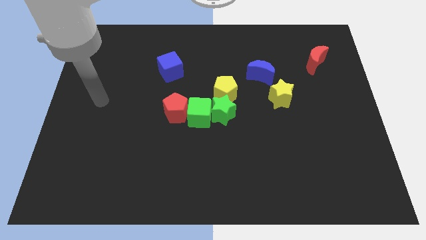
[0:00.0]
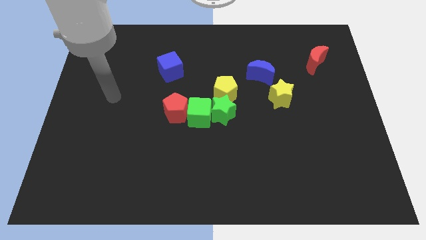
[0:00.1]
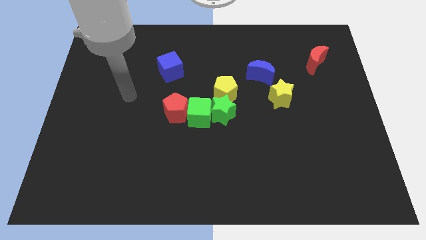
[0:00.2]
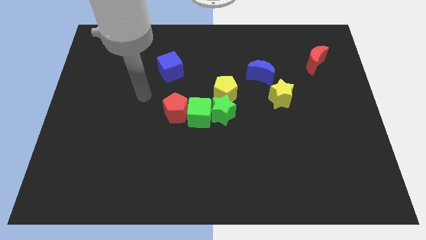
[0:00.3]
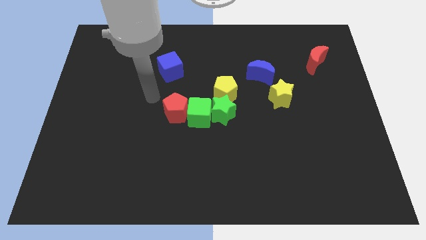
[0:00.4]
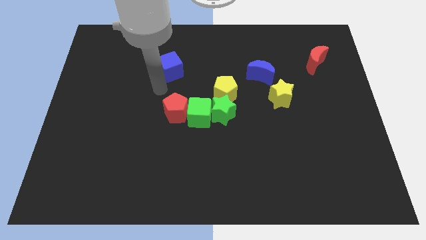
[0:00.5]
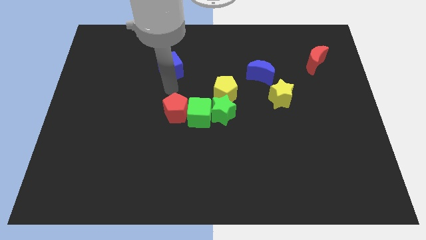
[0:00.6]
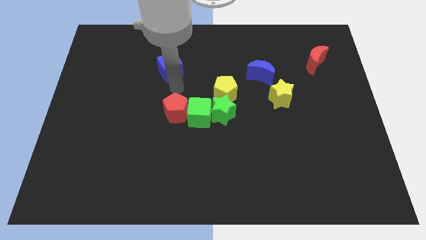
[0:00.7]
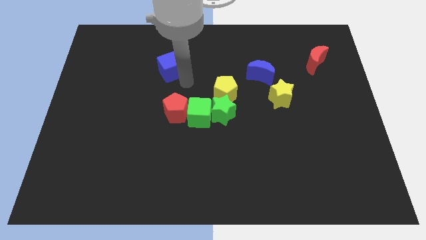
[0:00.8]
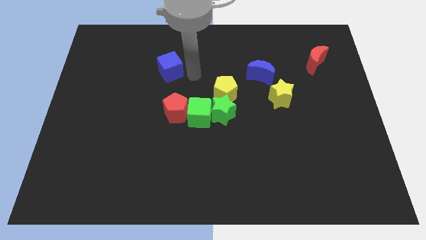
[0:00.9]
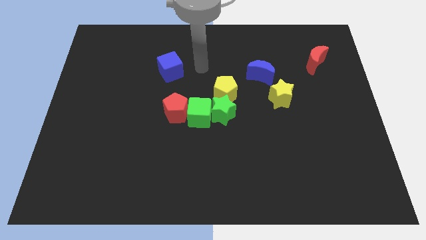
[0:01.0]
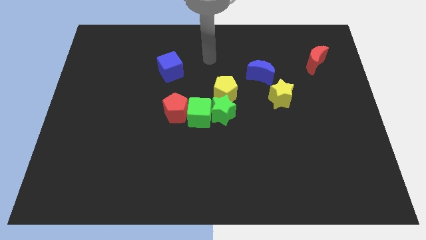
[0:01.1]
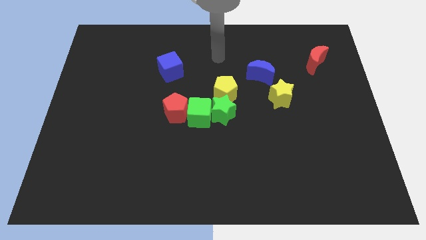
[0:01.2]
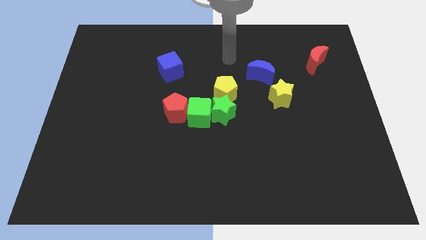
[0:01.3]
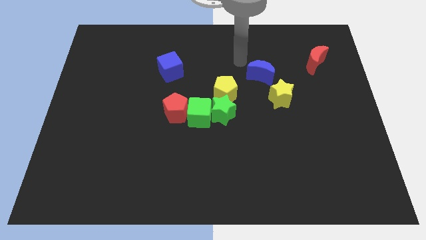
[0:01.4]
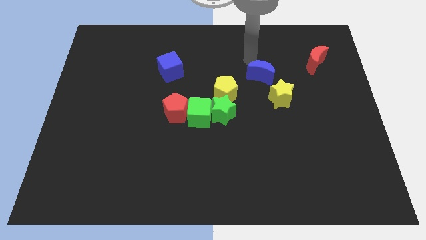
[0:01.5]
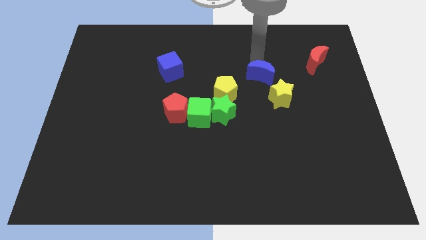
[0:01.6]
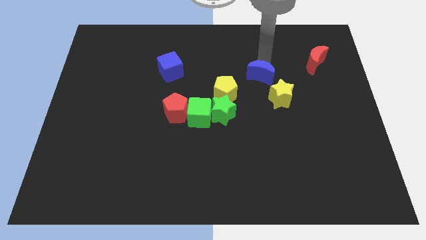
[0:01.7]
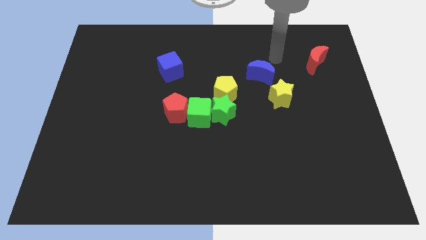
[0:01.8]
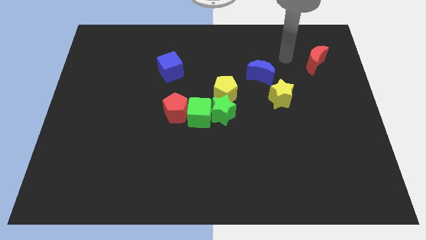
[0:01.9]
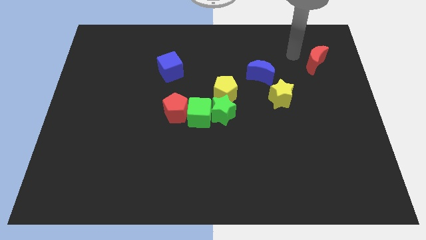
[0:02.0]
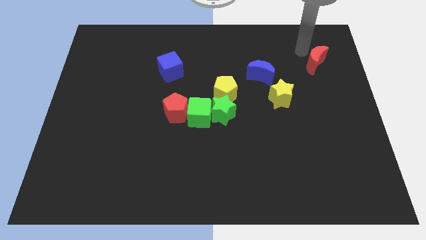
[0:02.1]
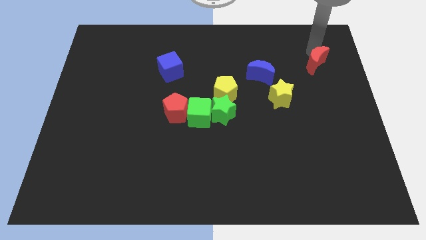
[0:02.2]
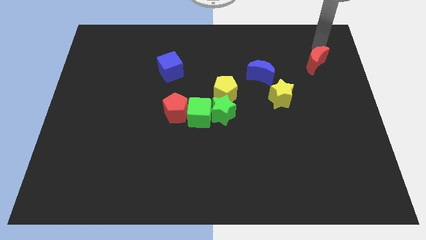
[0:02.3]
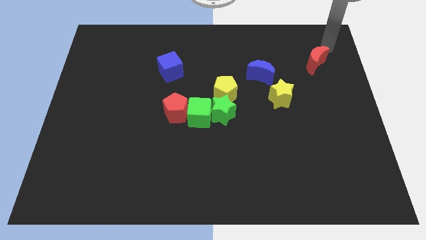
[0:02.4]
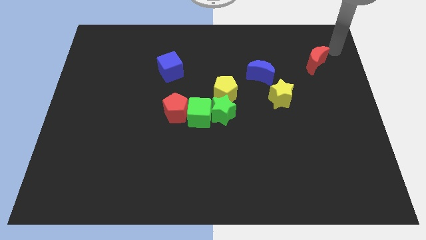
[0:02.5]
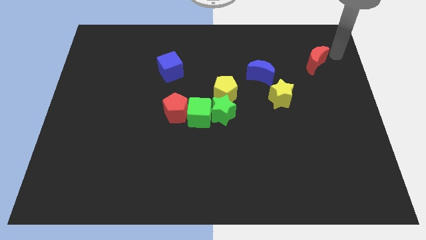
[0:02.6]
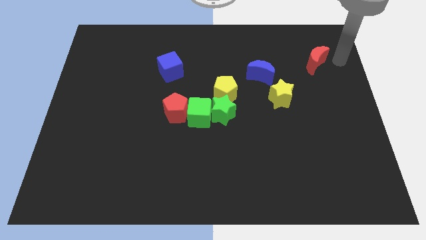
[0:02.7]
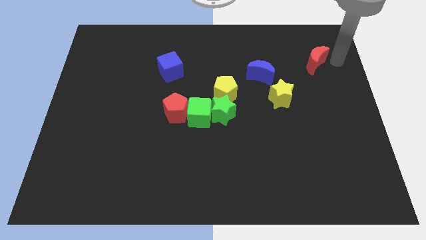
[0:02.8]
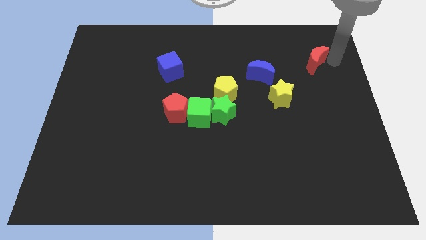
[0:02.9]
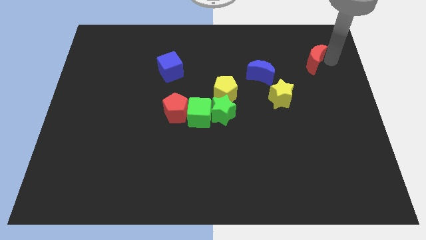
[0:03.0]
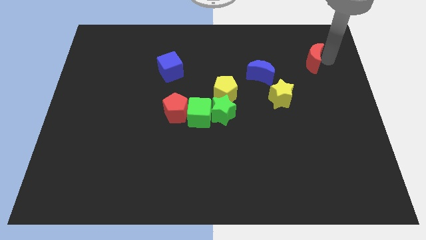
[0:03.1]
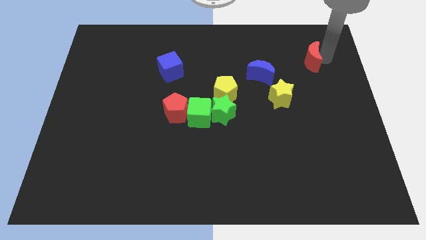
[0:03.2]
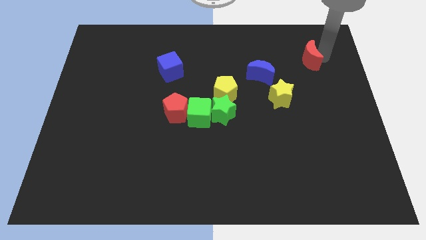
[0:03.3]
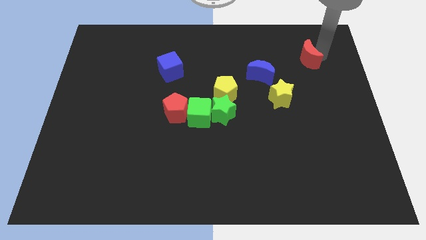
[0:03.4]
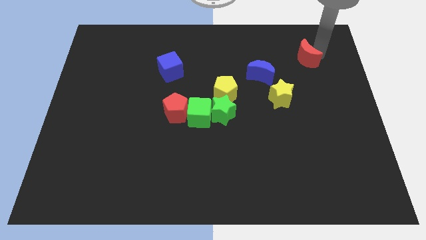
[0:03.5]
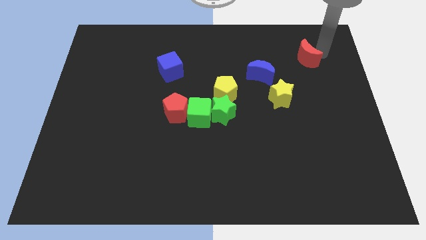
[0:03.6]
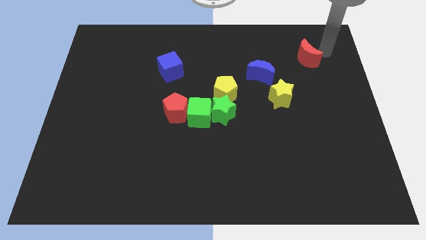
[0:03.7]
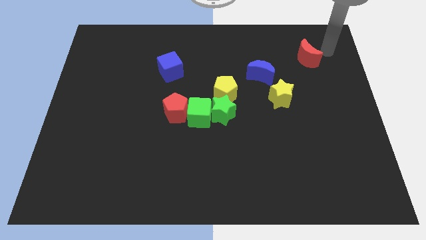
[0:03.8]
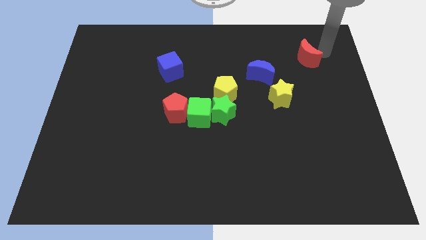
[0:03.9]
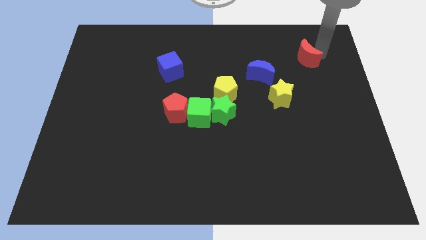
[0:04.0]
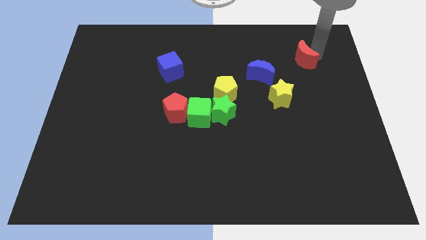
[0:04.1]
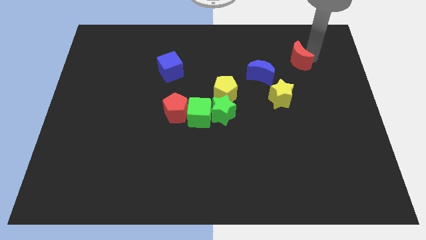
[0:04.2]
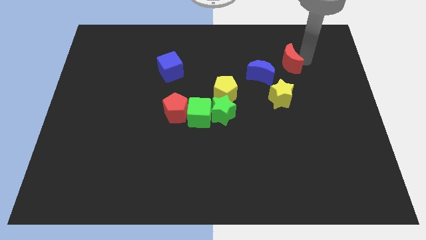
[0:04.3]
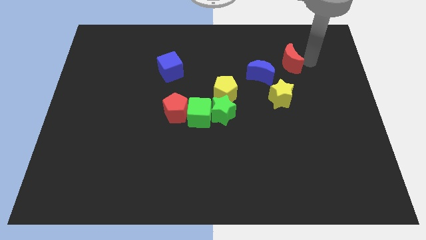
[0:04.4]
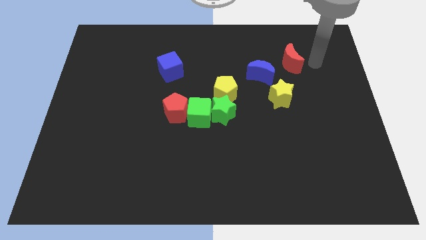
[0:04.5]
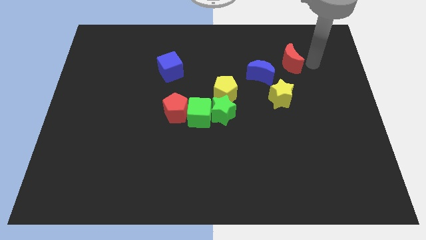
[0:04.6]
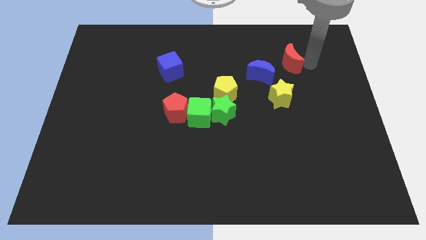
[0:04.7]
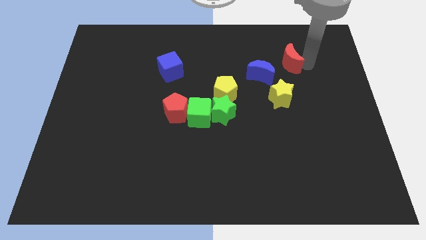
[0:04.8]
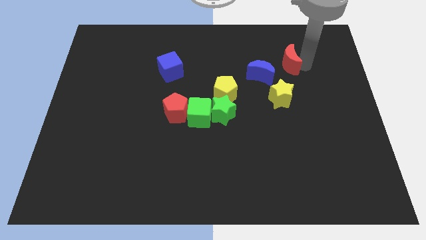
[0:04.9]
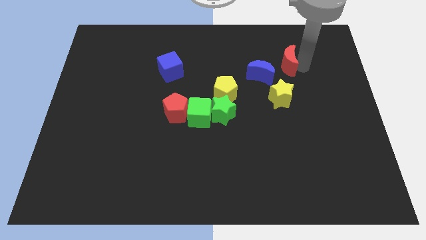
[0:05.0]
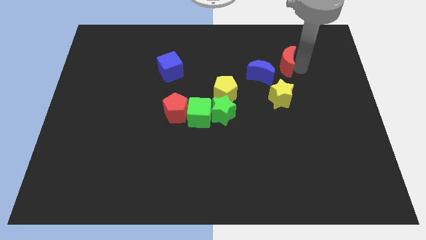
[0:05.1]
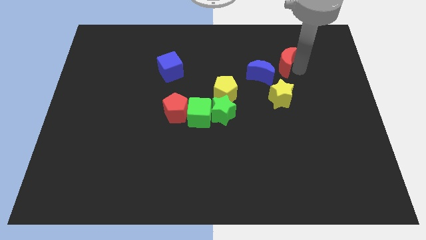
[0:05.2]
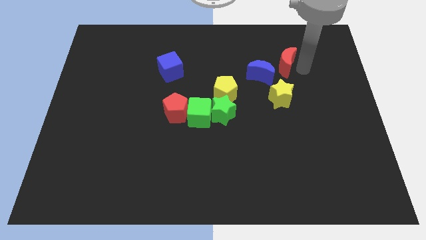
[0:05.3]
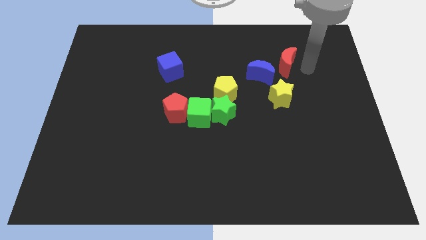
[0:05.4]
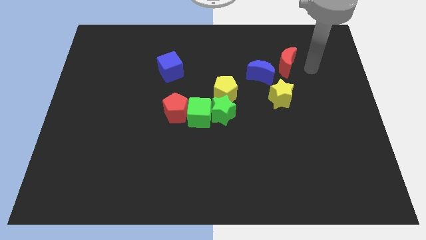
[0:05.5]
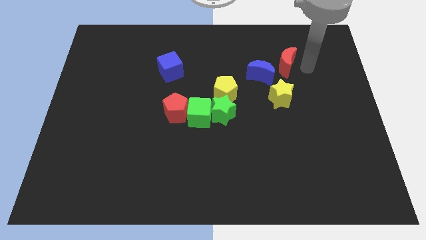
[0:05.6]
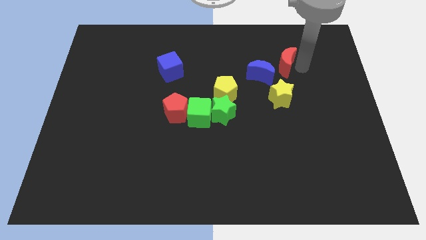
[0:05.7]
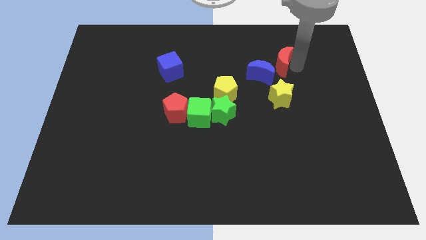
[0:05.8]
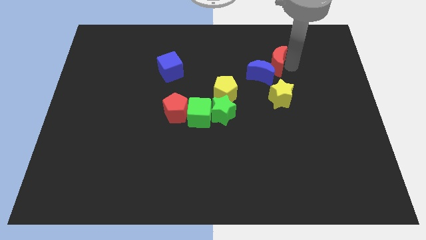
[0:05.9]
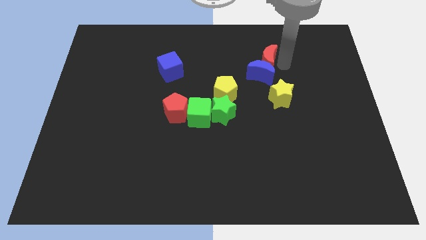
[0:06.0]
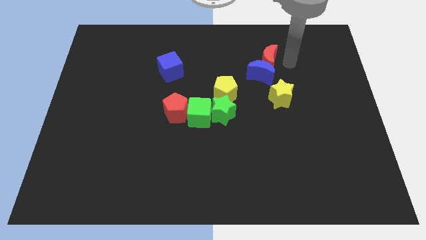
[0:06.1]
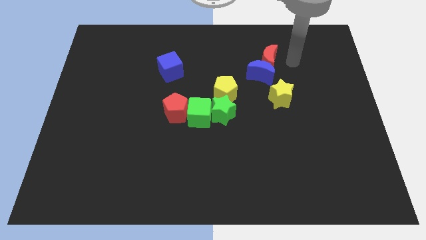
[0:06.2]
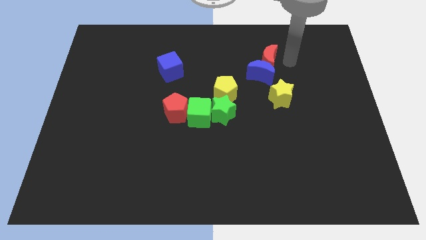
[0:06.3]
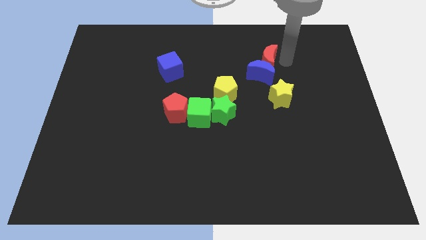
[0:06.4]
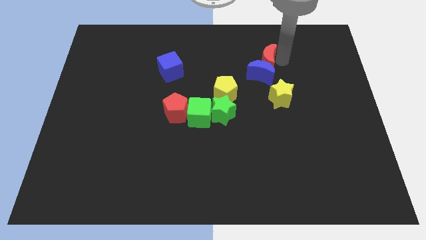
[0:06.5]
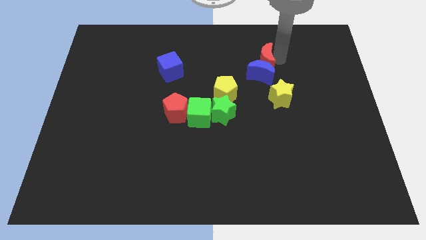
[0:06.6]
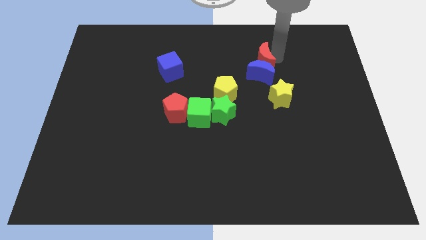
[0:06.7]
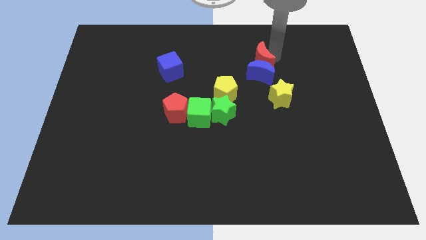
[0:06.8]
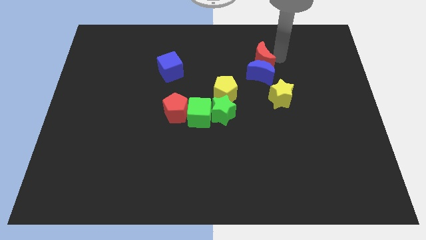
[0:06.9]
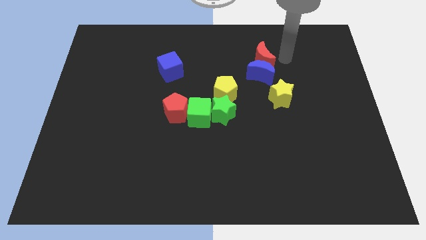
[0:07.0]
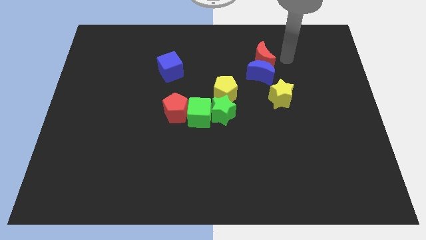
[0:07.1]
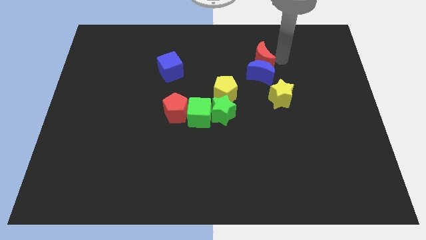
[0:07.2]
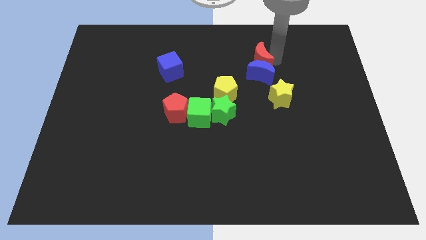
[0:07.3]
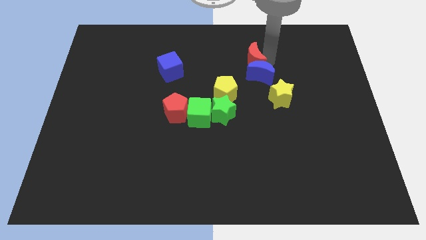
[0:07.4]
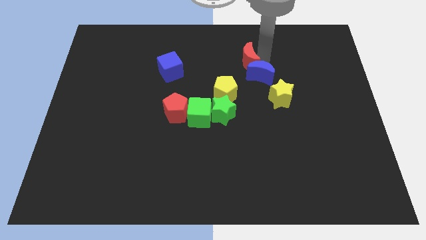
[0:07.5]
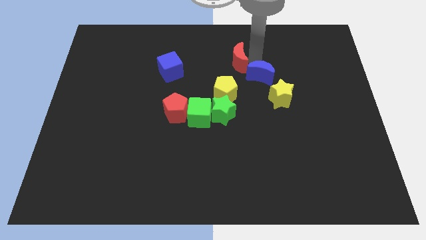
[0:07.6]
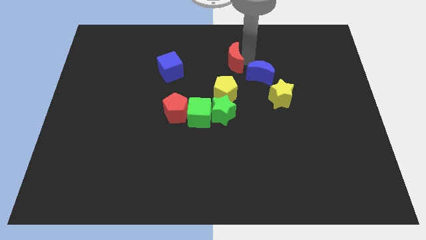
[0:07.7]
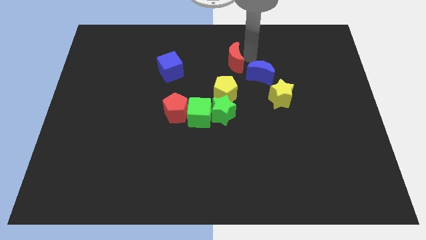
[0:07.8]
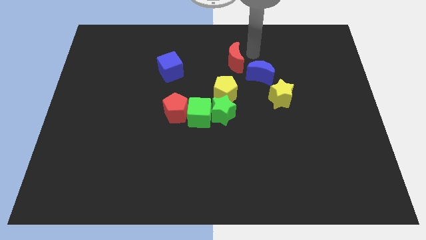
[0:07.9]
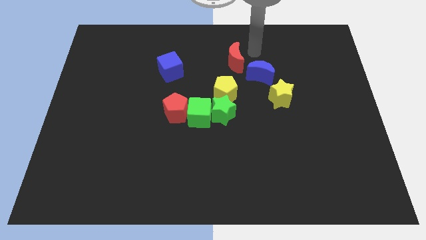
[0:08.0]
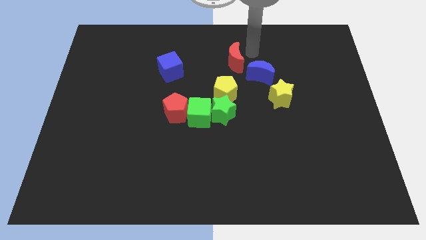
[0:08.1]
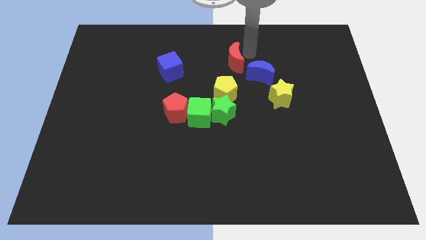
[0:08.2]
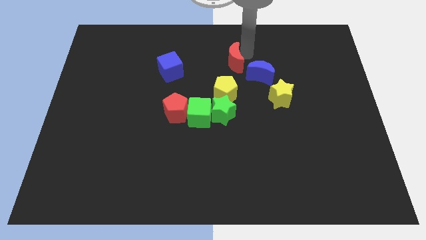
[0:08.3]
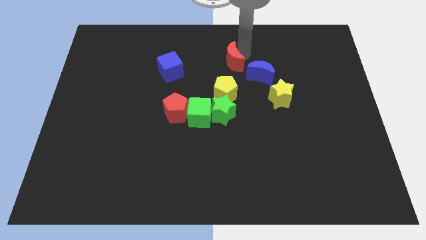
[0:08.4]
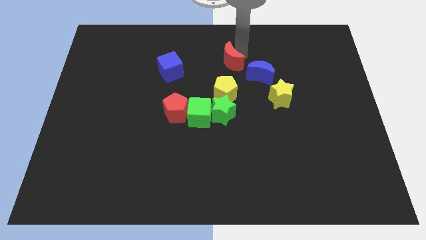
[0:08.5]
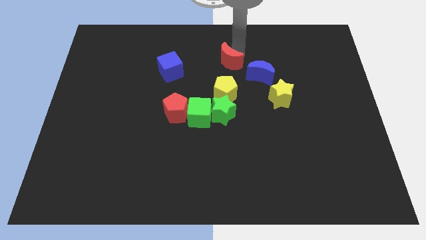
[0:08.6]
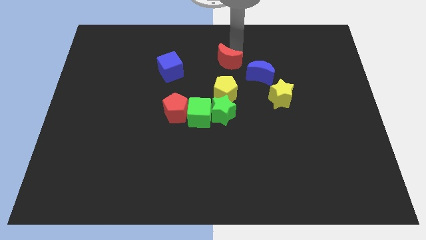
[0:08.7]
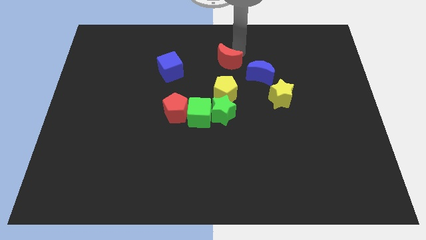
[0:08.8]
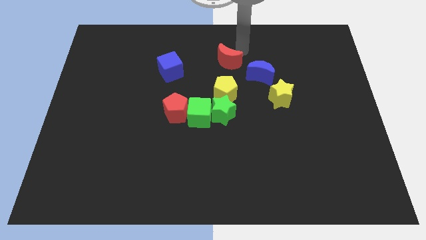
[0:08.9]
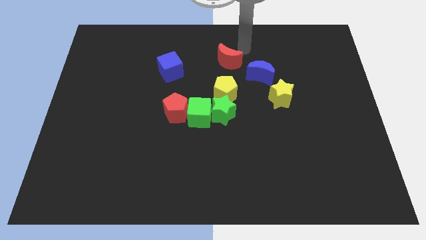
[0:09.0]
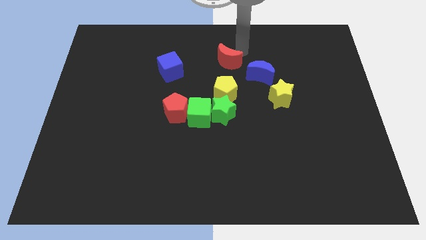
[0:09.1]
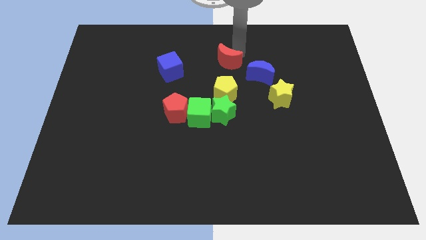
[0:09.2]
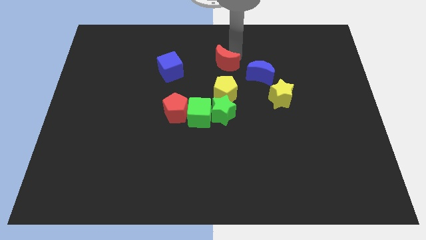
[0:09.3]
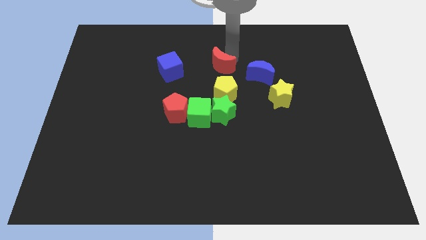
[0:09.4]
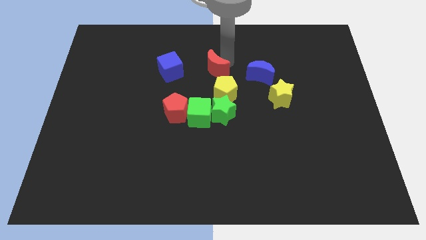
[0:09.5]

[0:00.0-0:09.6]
push the red moon to the top left of the yellow pentagon
